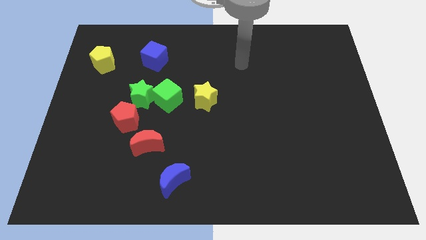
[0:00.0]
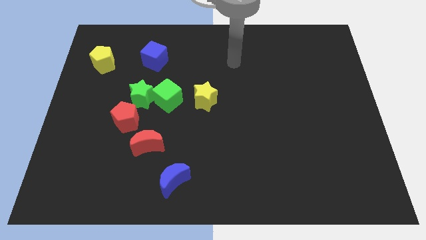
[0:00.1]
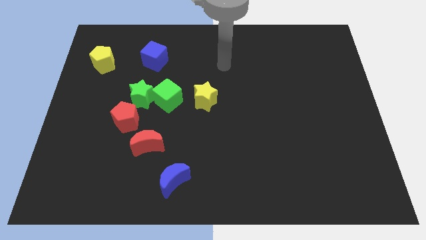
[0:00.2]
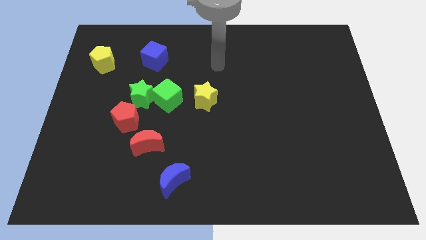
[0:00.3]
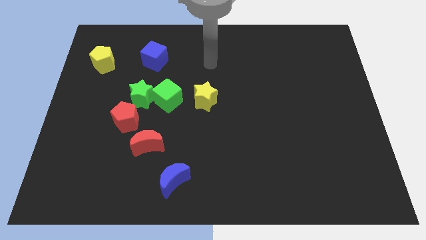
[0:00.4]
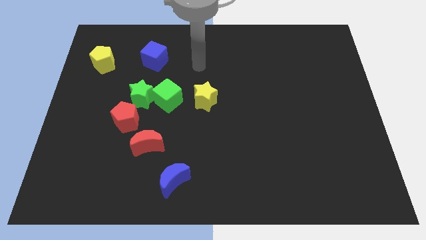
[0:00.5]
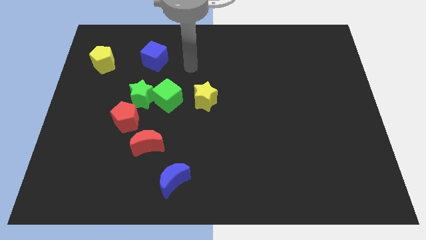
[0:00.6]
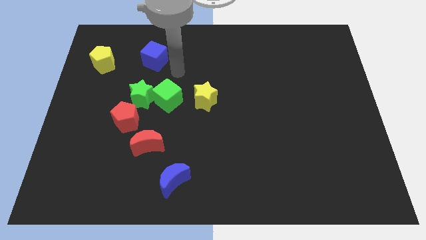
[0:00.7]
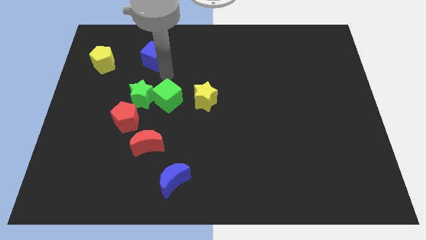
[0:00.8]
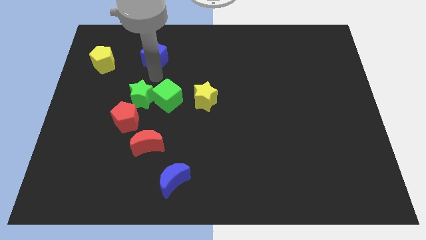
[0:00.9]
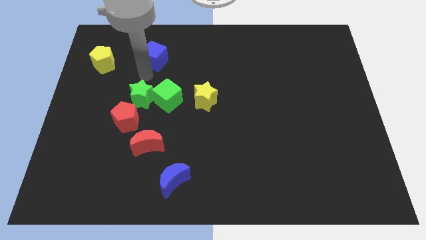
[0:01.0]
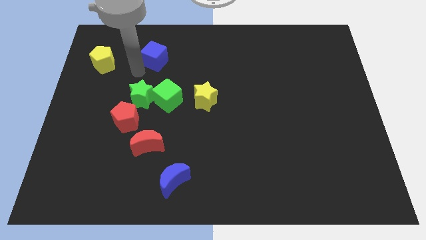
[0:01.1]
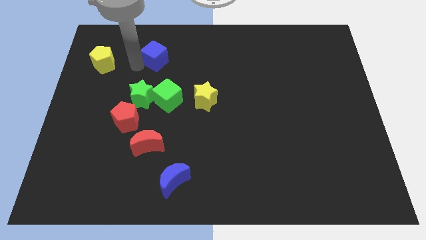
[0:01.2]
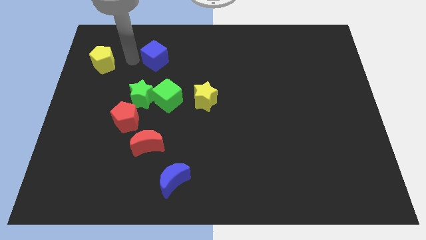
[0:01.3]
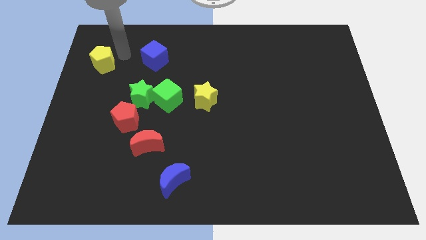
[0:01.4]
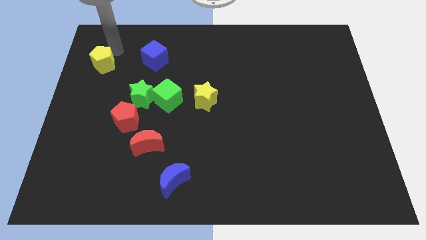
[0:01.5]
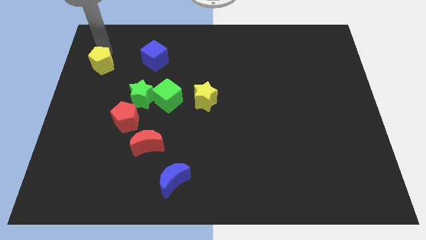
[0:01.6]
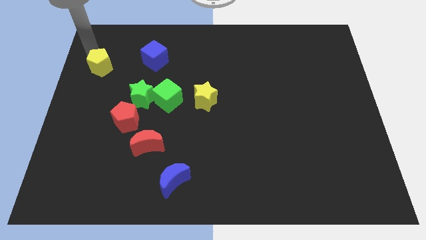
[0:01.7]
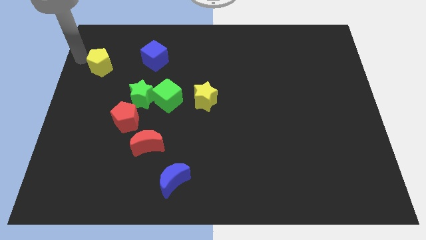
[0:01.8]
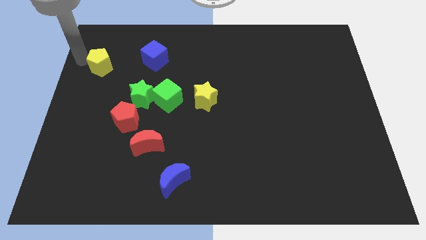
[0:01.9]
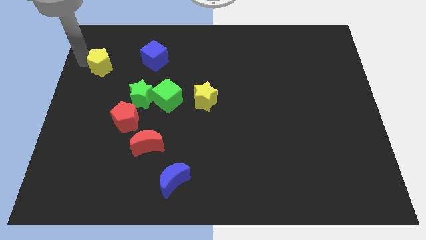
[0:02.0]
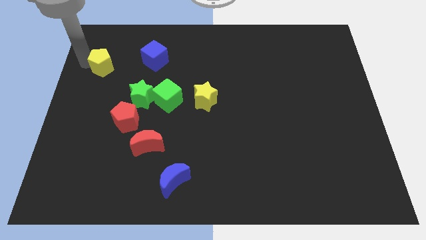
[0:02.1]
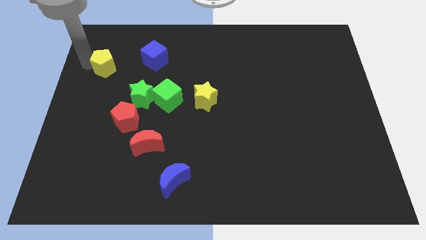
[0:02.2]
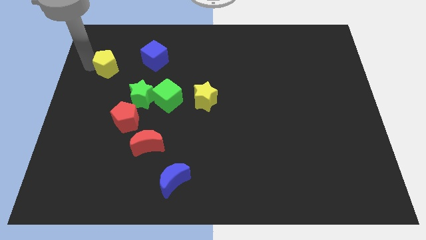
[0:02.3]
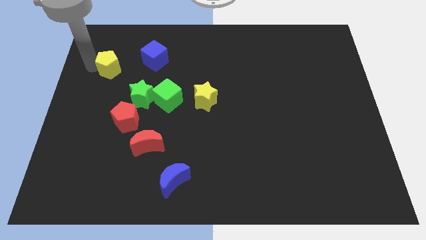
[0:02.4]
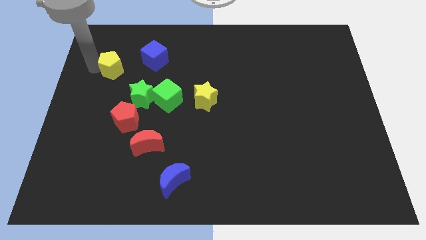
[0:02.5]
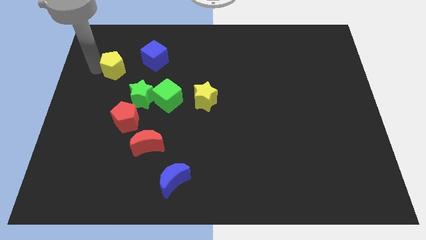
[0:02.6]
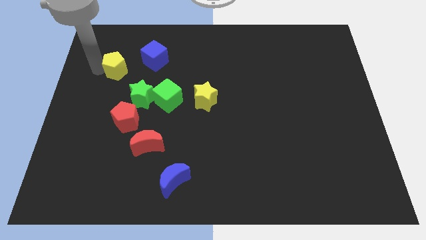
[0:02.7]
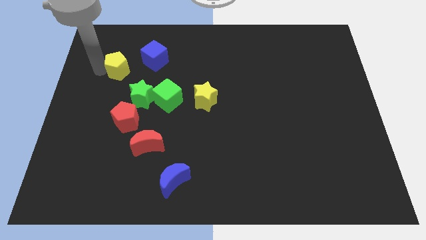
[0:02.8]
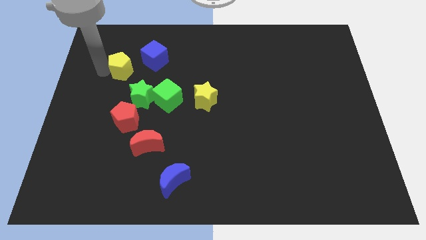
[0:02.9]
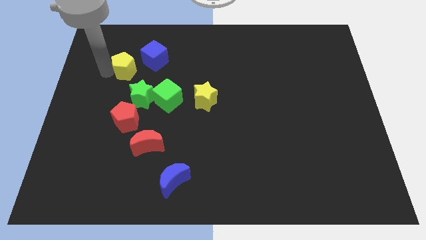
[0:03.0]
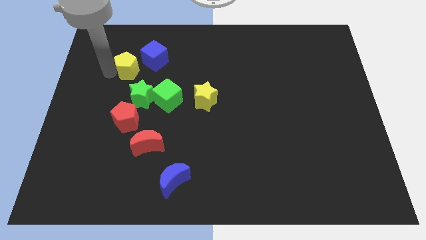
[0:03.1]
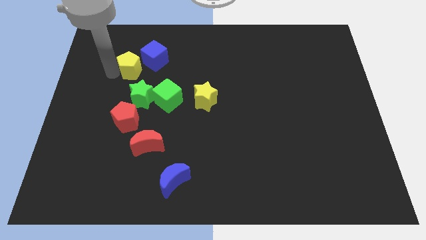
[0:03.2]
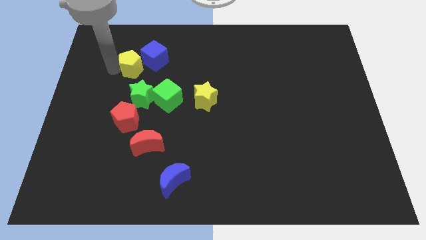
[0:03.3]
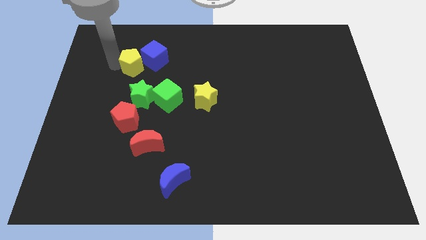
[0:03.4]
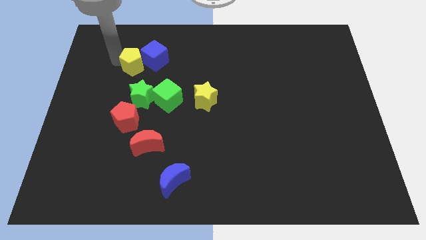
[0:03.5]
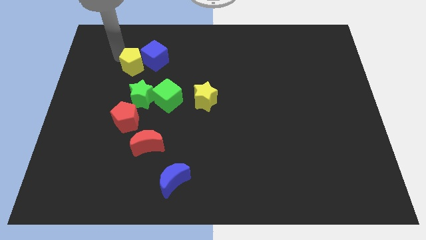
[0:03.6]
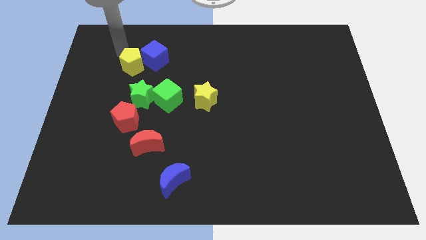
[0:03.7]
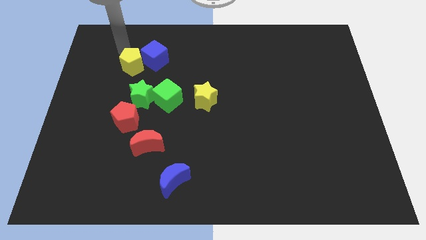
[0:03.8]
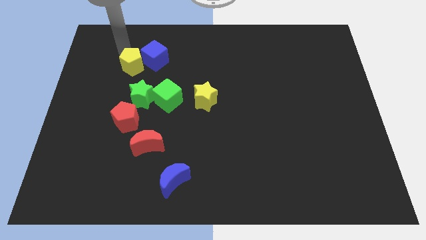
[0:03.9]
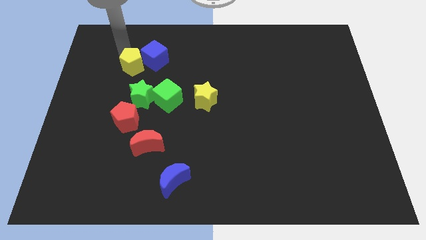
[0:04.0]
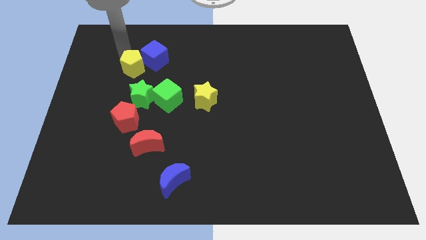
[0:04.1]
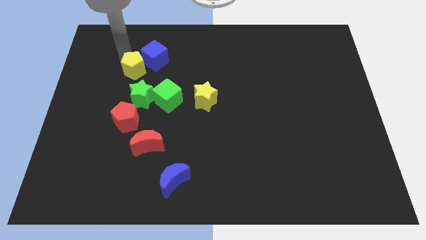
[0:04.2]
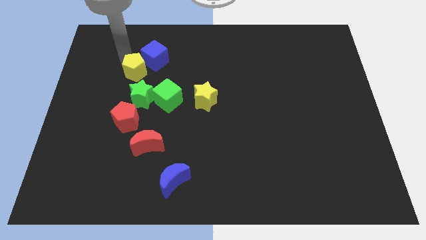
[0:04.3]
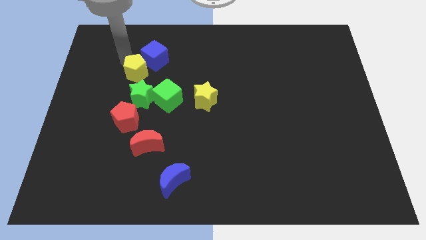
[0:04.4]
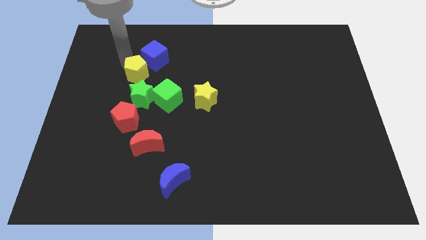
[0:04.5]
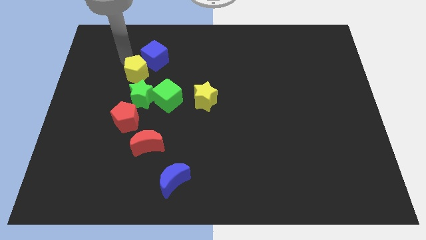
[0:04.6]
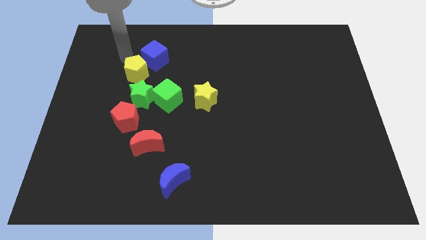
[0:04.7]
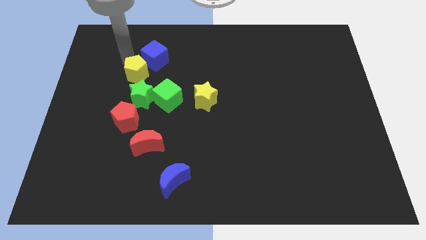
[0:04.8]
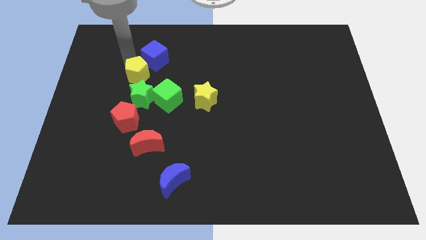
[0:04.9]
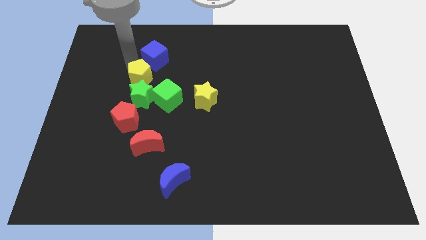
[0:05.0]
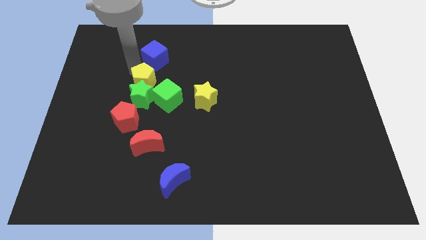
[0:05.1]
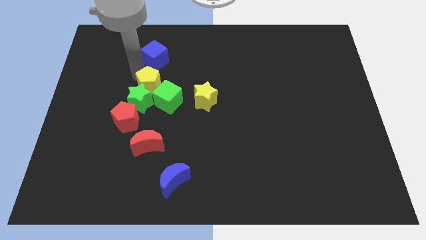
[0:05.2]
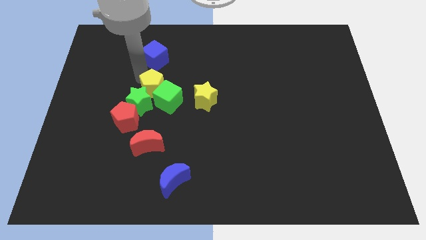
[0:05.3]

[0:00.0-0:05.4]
move the yellow pentagon to the green cube

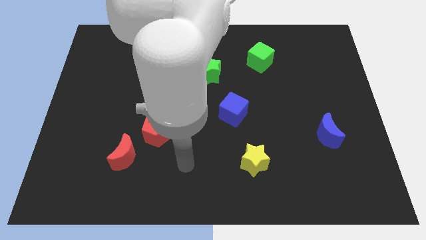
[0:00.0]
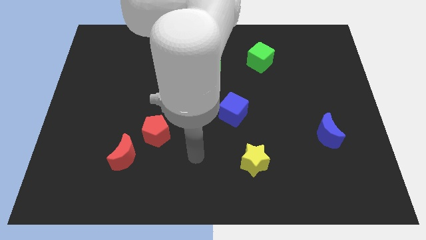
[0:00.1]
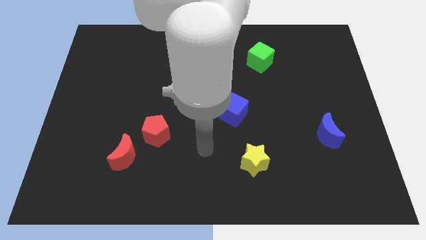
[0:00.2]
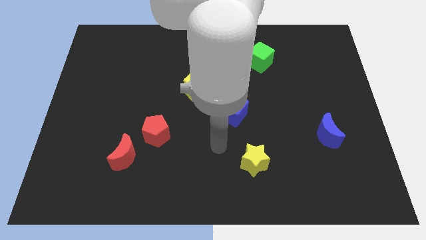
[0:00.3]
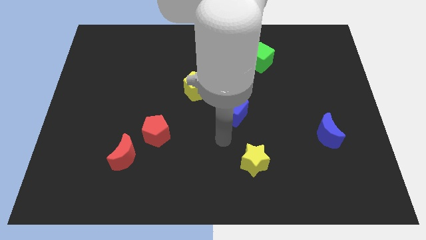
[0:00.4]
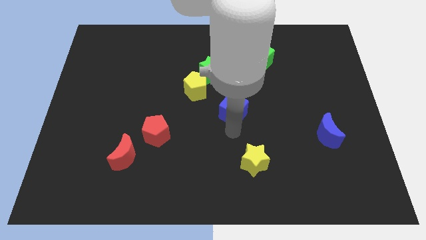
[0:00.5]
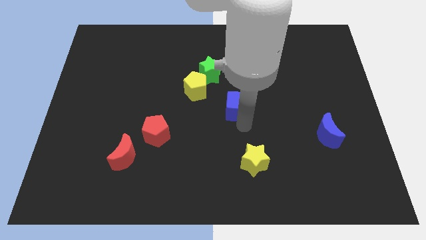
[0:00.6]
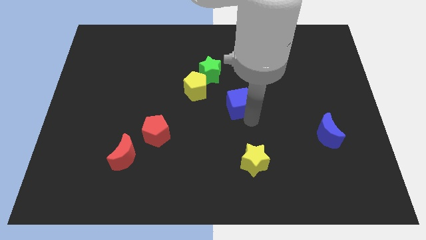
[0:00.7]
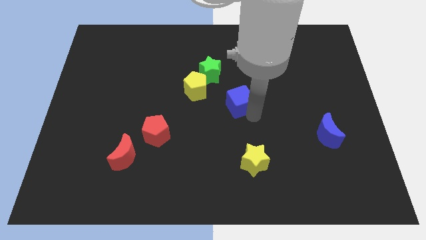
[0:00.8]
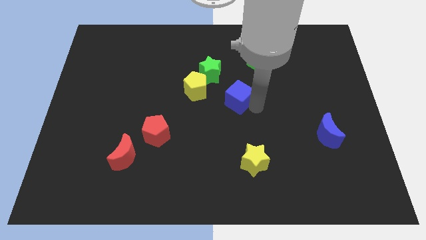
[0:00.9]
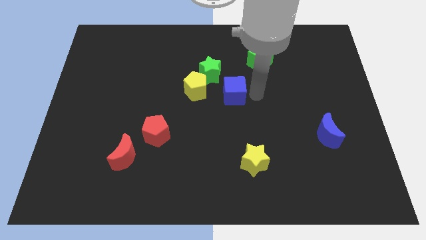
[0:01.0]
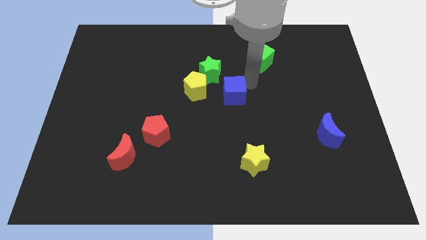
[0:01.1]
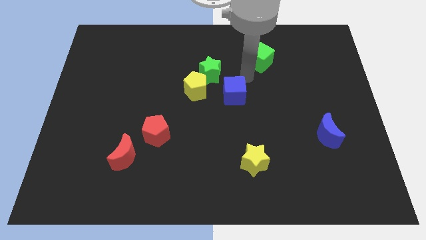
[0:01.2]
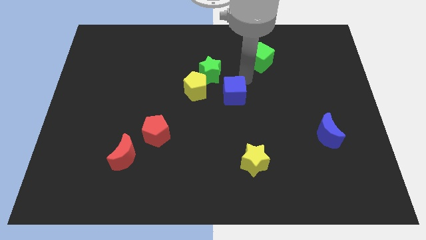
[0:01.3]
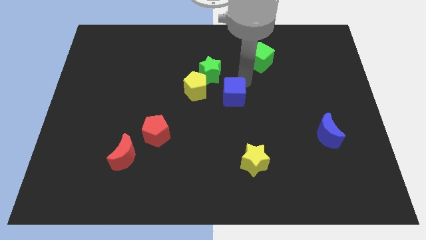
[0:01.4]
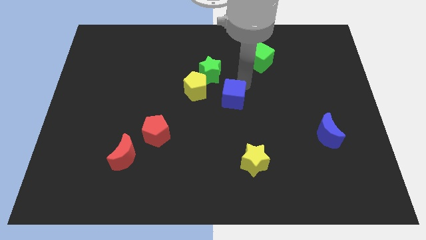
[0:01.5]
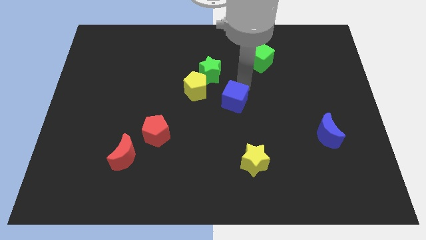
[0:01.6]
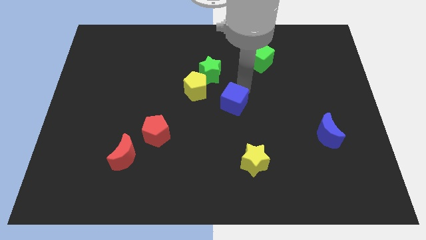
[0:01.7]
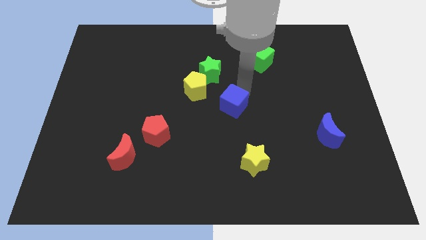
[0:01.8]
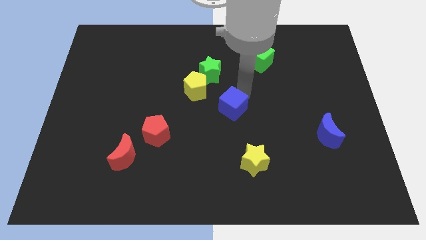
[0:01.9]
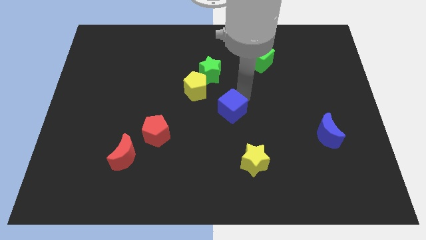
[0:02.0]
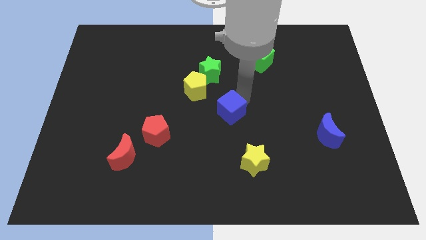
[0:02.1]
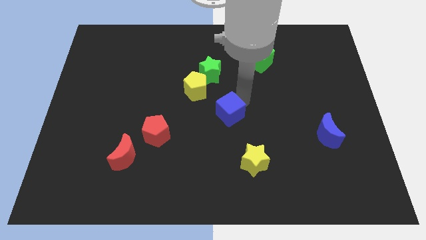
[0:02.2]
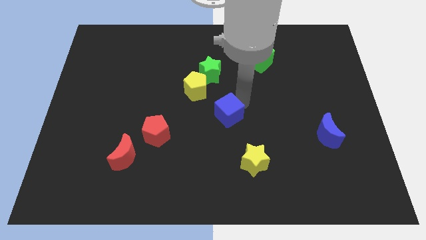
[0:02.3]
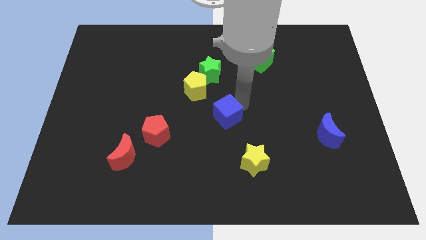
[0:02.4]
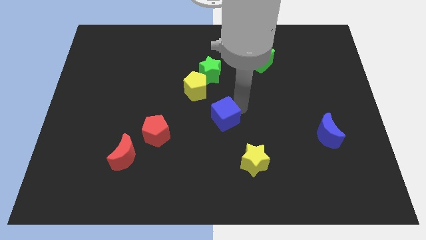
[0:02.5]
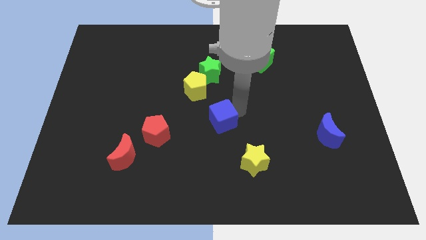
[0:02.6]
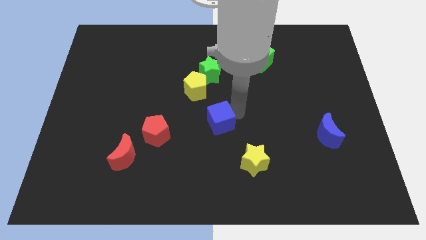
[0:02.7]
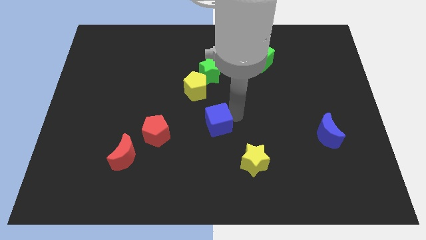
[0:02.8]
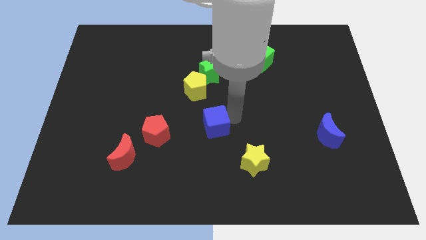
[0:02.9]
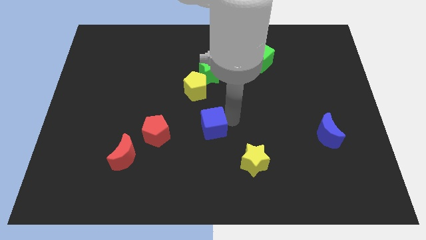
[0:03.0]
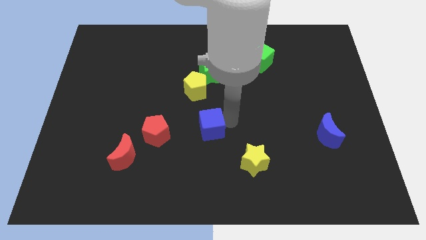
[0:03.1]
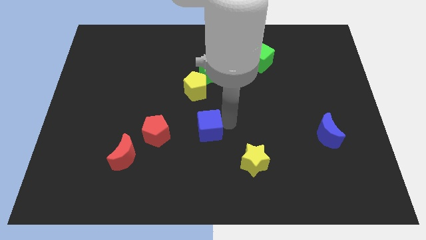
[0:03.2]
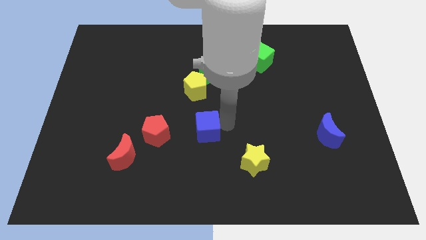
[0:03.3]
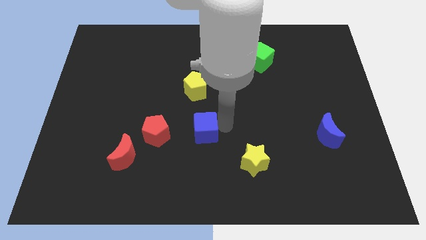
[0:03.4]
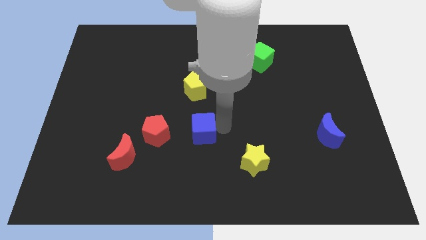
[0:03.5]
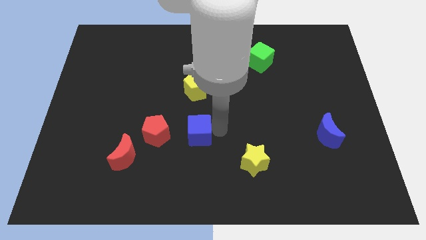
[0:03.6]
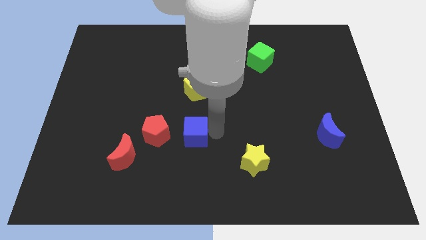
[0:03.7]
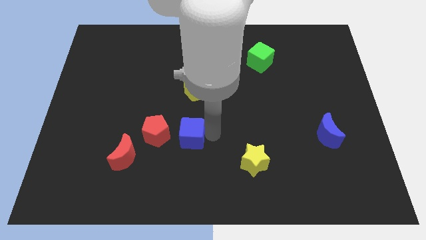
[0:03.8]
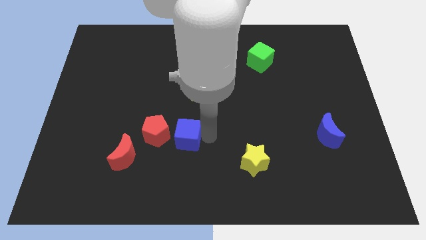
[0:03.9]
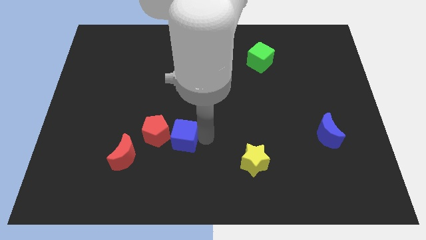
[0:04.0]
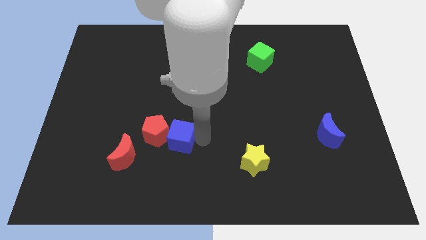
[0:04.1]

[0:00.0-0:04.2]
move the blue cube to the red pentagon
